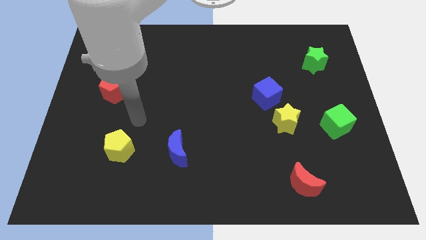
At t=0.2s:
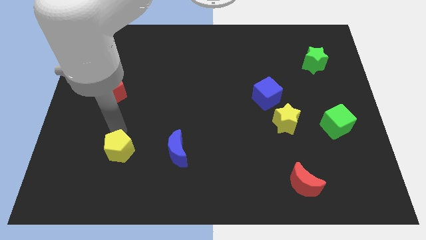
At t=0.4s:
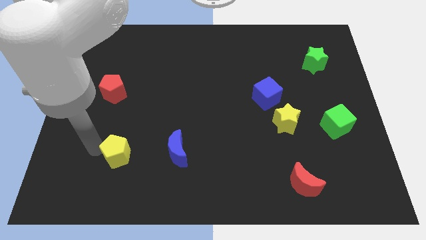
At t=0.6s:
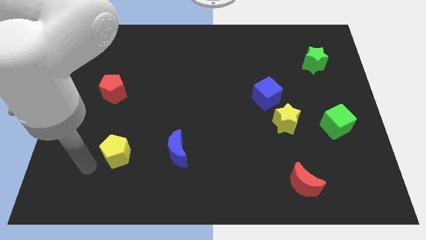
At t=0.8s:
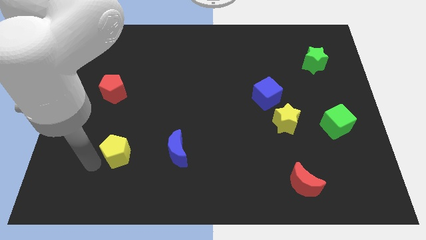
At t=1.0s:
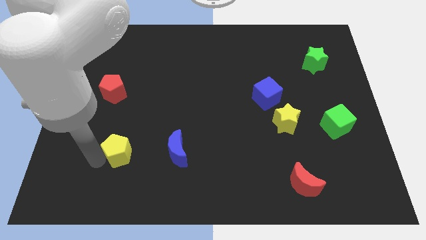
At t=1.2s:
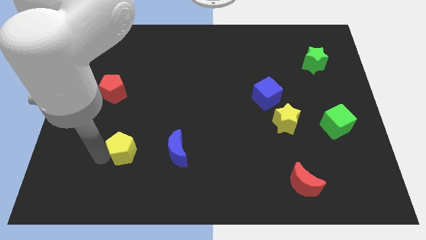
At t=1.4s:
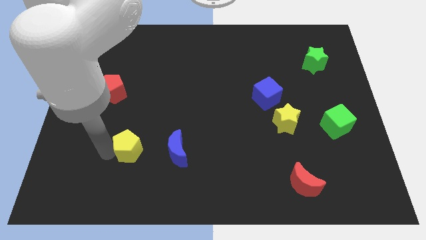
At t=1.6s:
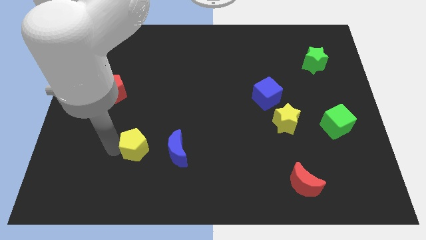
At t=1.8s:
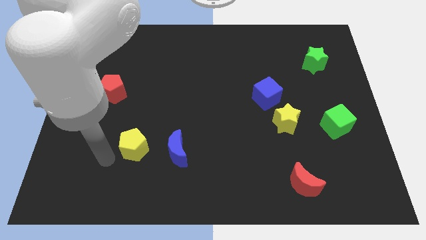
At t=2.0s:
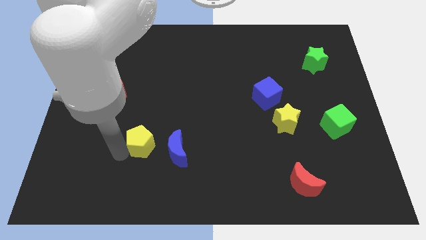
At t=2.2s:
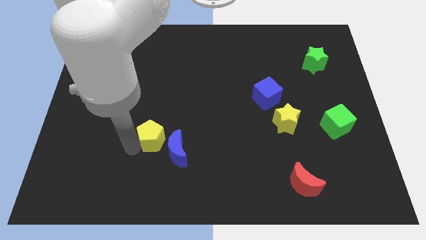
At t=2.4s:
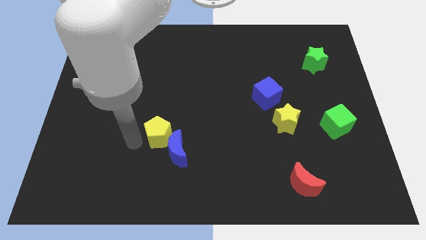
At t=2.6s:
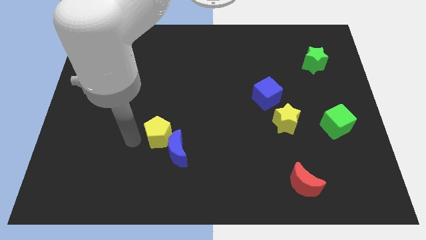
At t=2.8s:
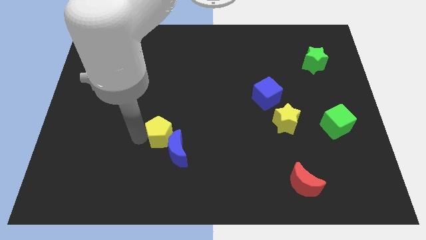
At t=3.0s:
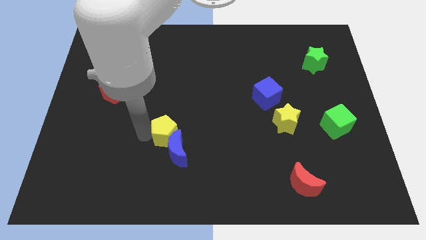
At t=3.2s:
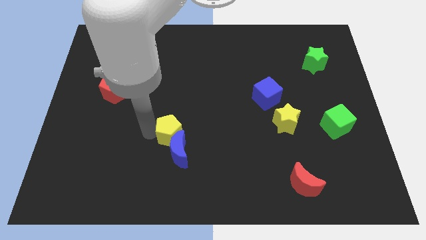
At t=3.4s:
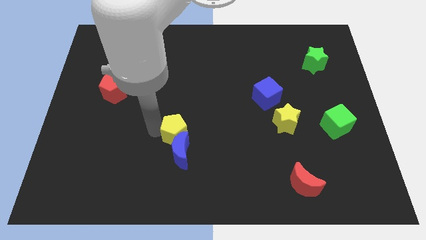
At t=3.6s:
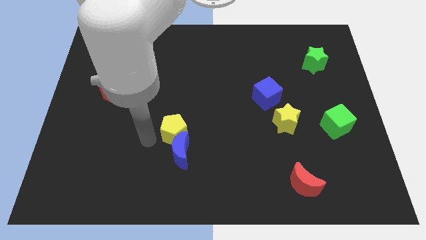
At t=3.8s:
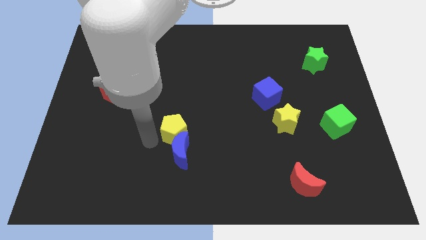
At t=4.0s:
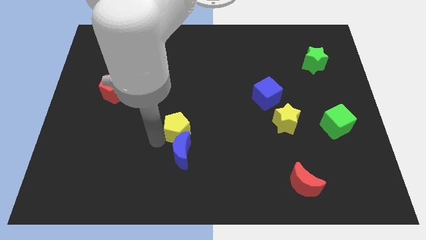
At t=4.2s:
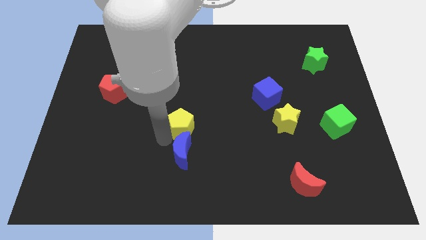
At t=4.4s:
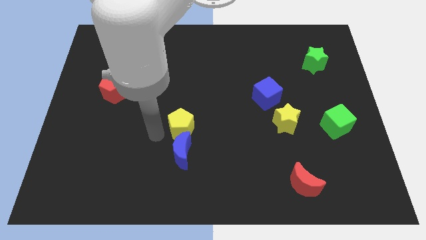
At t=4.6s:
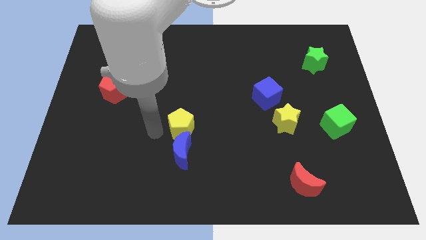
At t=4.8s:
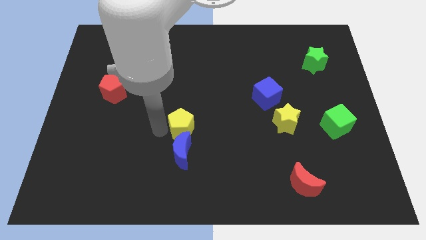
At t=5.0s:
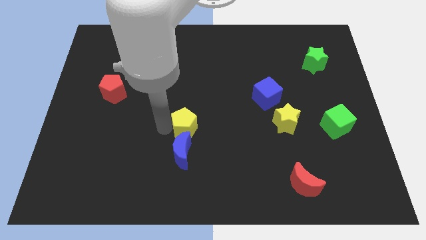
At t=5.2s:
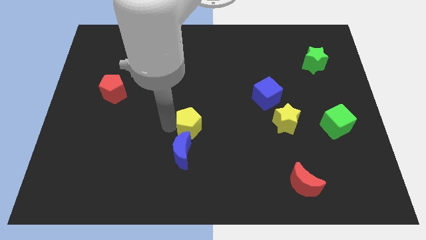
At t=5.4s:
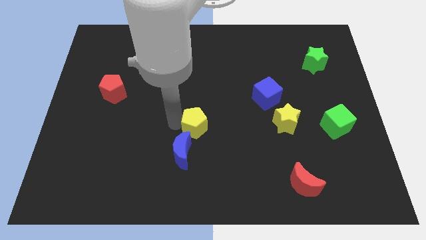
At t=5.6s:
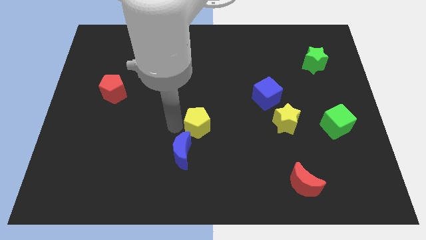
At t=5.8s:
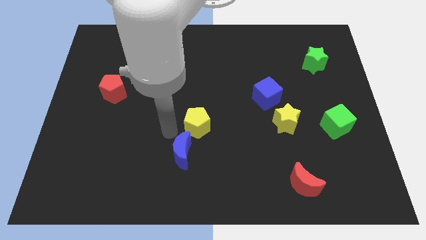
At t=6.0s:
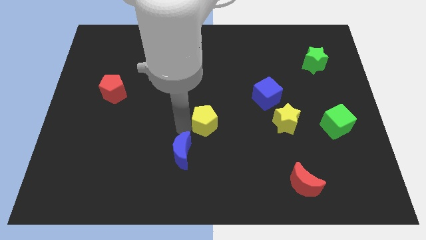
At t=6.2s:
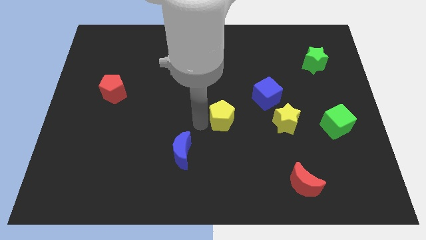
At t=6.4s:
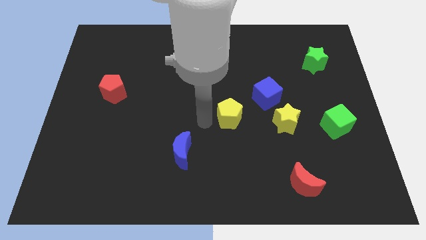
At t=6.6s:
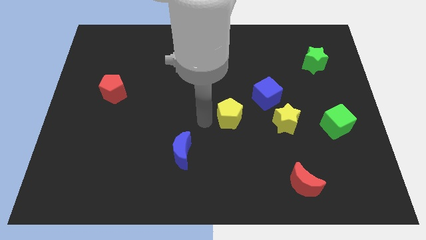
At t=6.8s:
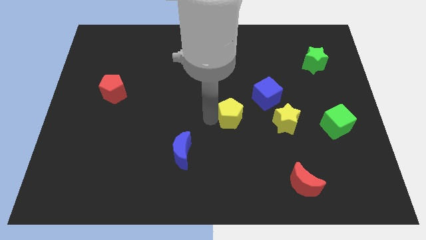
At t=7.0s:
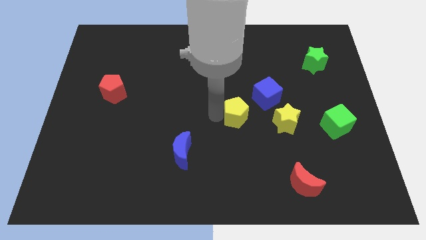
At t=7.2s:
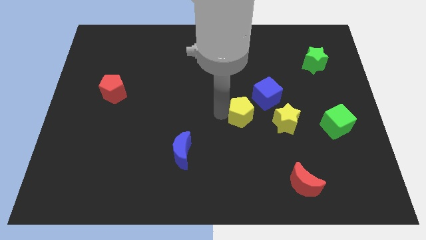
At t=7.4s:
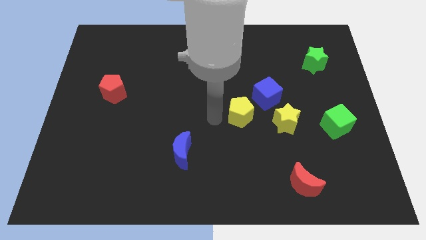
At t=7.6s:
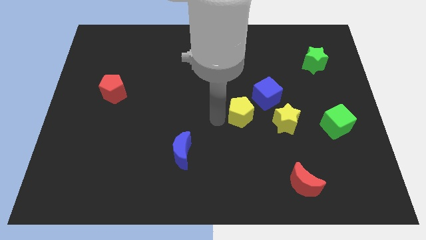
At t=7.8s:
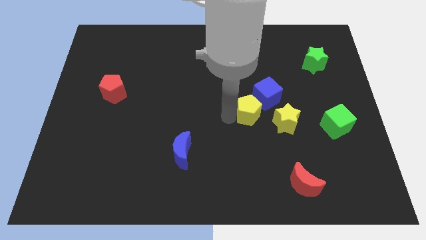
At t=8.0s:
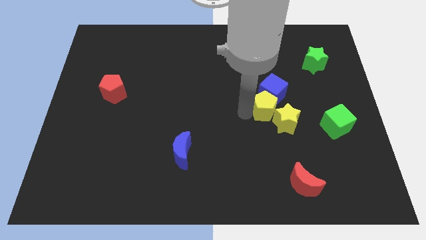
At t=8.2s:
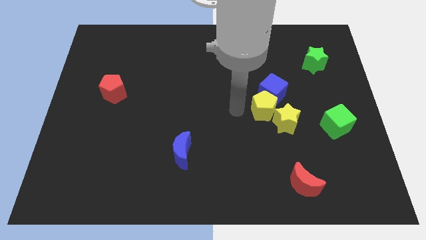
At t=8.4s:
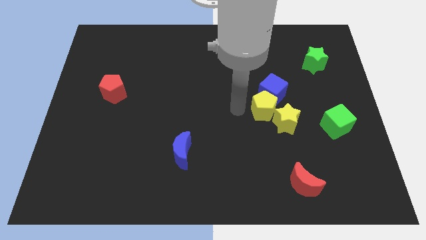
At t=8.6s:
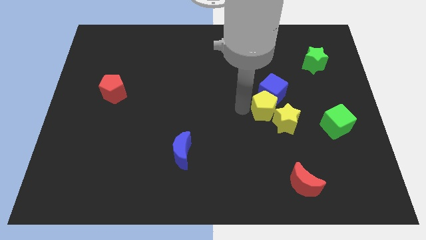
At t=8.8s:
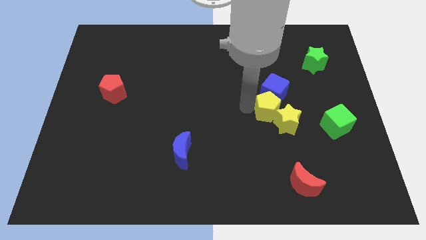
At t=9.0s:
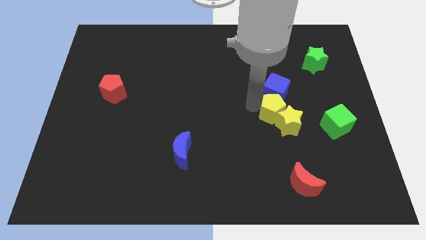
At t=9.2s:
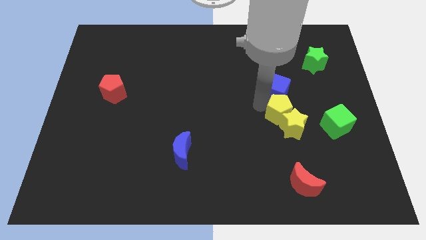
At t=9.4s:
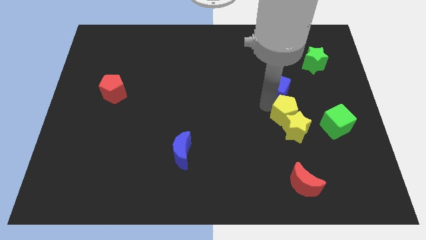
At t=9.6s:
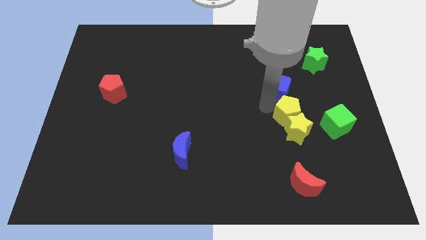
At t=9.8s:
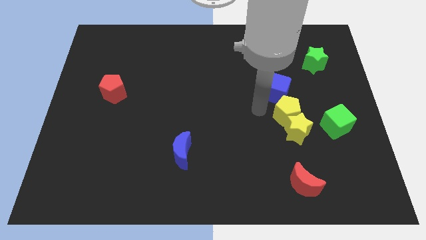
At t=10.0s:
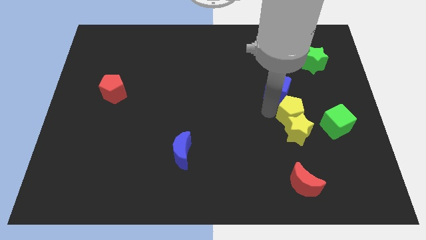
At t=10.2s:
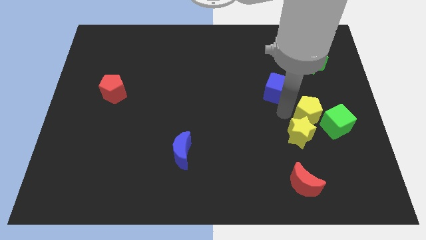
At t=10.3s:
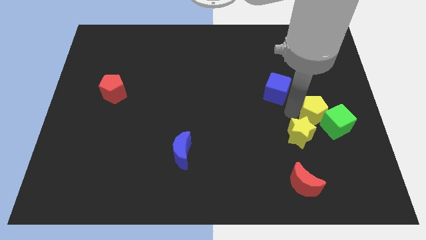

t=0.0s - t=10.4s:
move the yellow pentagon close to the green cube

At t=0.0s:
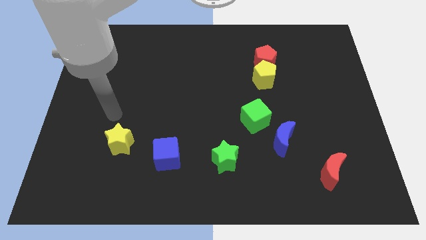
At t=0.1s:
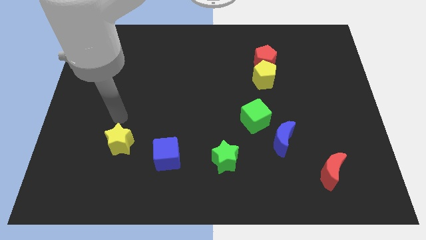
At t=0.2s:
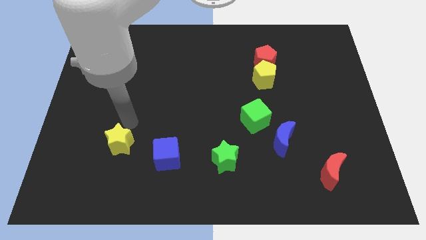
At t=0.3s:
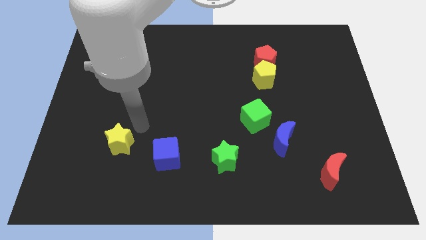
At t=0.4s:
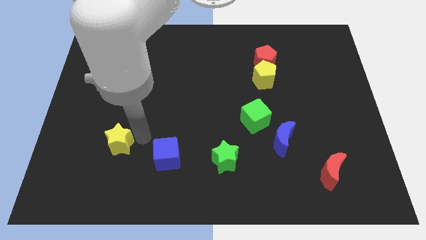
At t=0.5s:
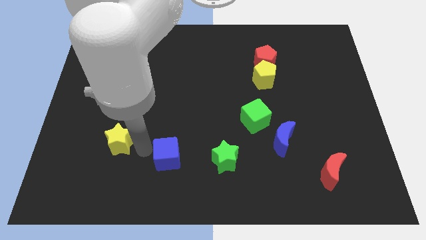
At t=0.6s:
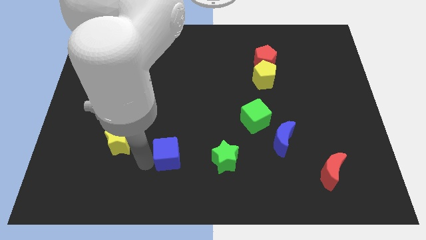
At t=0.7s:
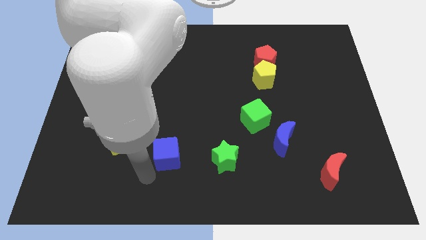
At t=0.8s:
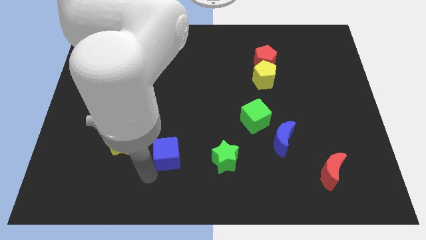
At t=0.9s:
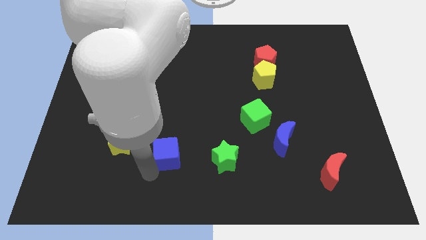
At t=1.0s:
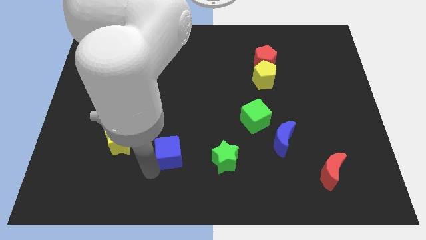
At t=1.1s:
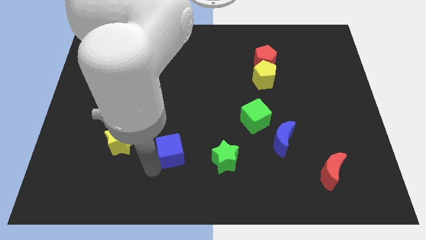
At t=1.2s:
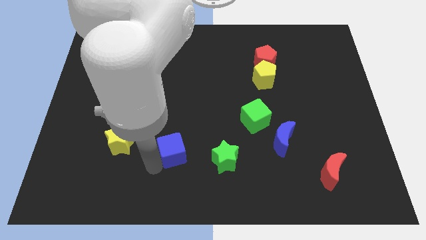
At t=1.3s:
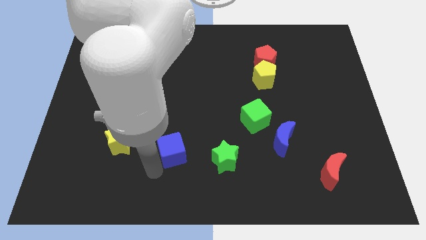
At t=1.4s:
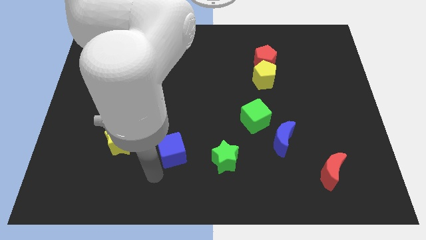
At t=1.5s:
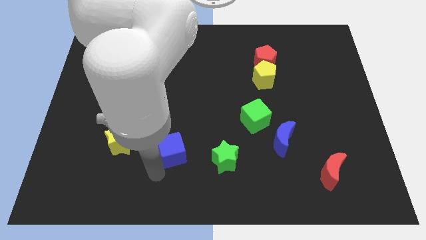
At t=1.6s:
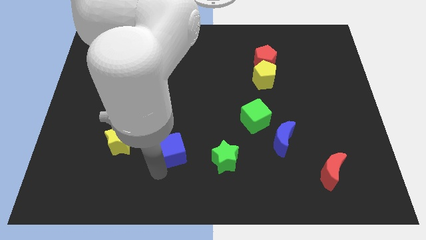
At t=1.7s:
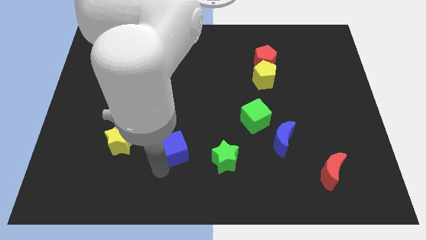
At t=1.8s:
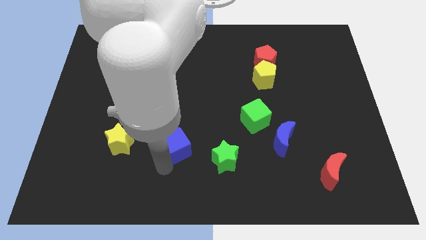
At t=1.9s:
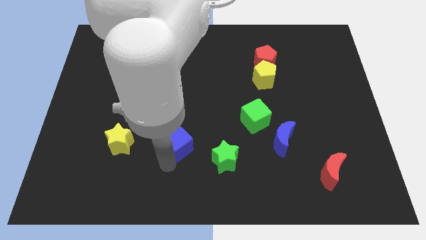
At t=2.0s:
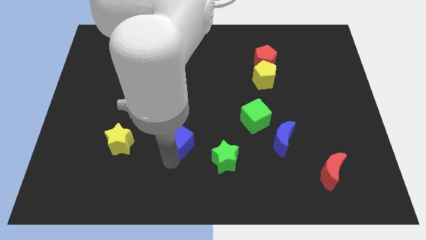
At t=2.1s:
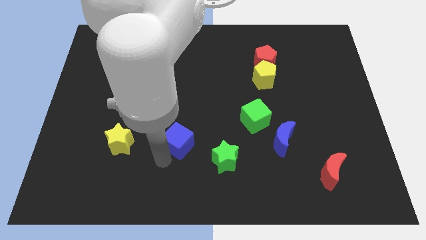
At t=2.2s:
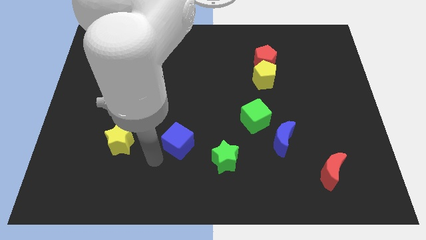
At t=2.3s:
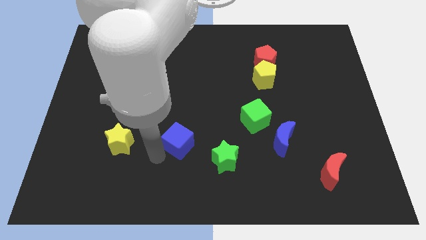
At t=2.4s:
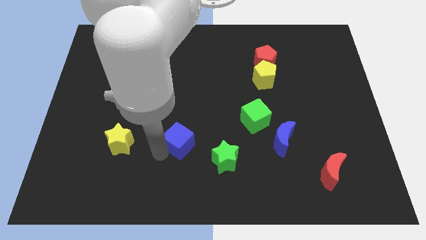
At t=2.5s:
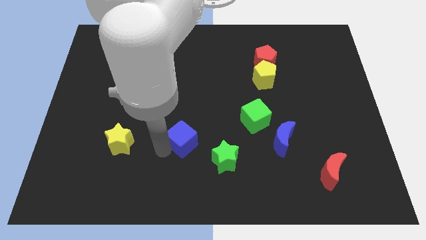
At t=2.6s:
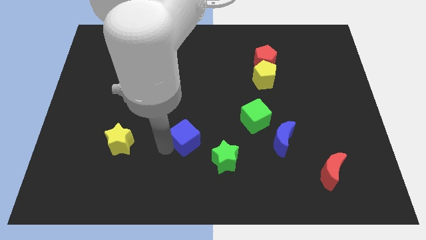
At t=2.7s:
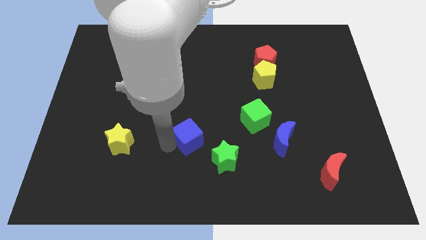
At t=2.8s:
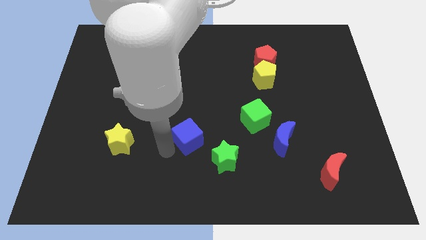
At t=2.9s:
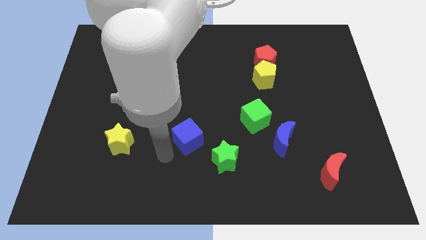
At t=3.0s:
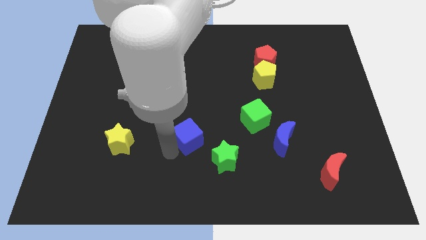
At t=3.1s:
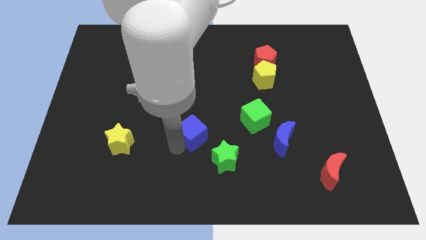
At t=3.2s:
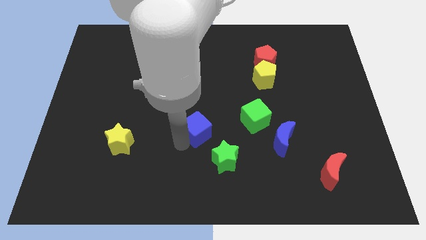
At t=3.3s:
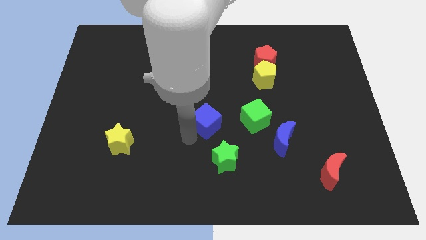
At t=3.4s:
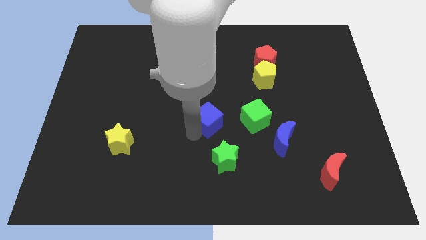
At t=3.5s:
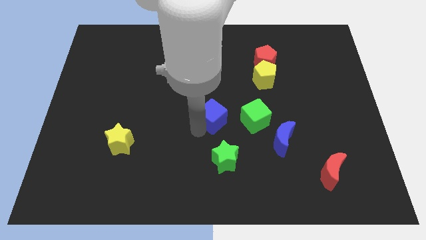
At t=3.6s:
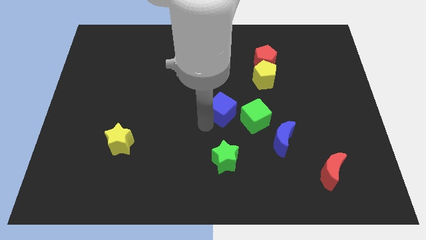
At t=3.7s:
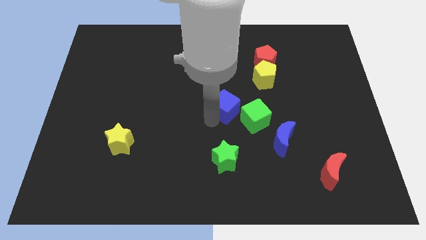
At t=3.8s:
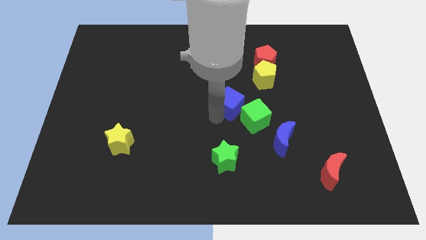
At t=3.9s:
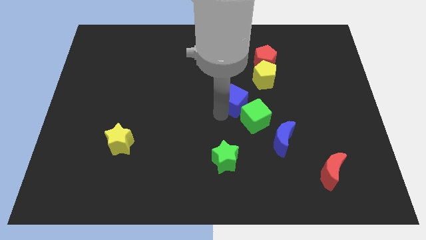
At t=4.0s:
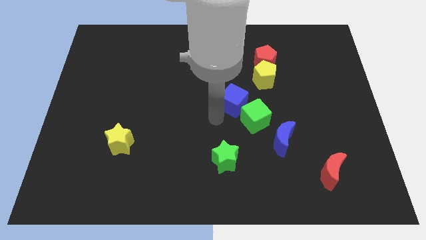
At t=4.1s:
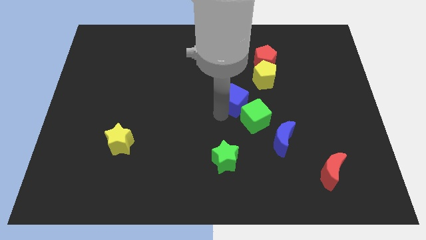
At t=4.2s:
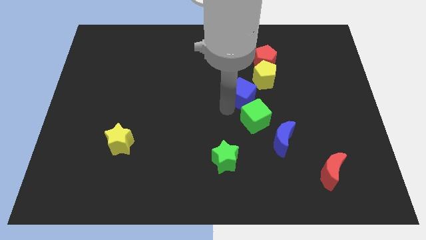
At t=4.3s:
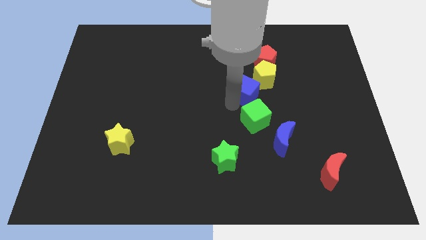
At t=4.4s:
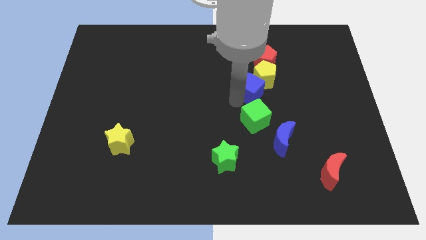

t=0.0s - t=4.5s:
move the blue cube towards the yellow pentagon
